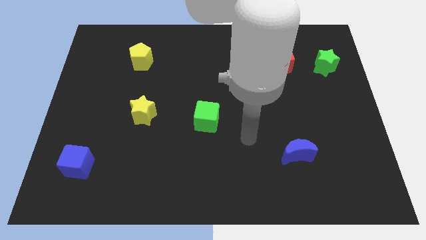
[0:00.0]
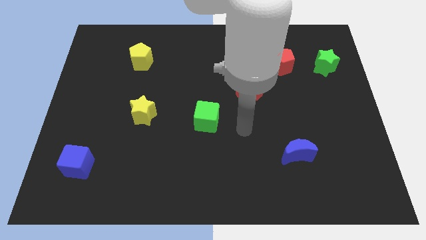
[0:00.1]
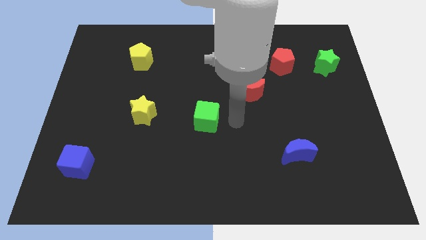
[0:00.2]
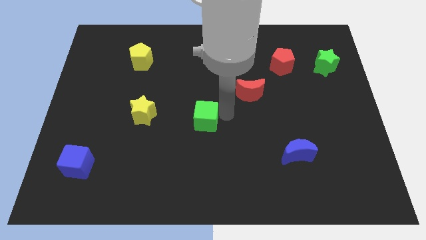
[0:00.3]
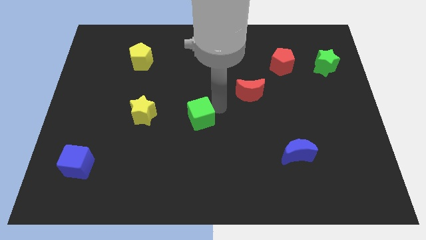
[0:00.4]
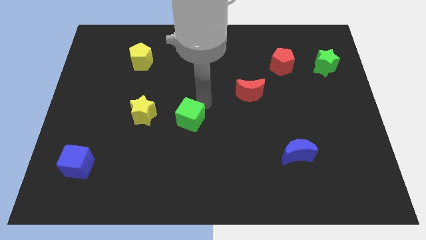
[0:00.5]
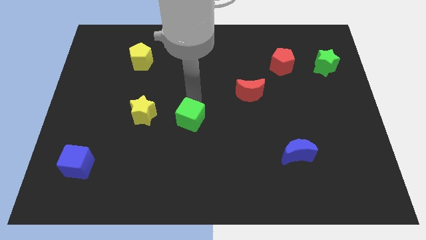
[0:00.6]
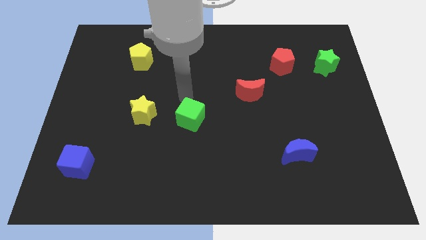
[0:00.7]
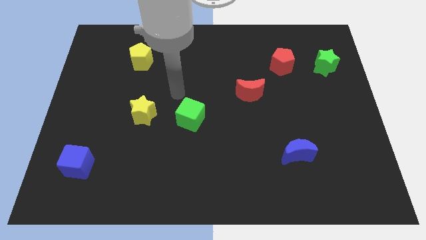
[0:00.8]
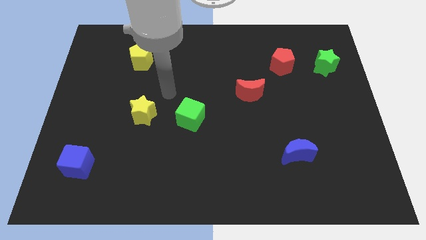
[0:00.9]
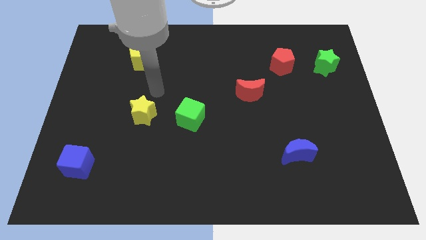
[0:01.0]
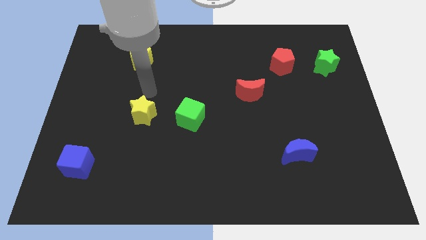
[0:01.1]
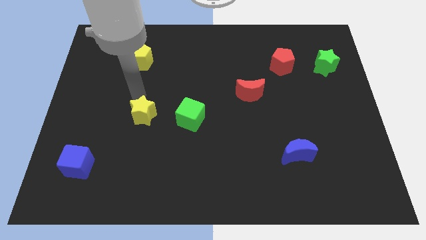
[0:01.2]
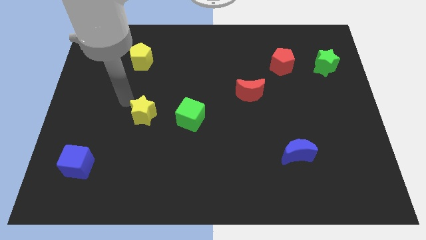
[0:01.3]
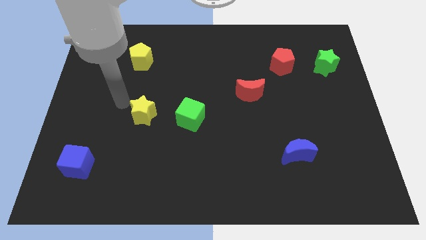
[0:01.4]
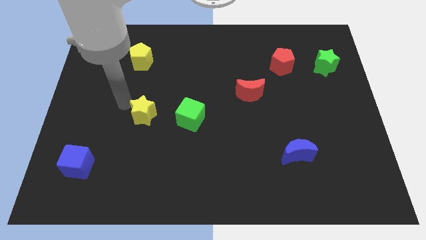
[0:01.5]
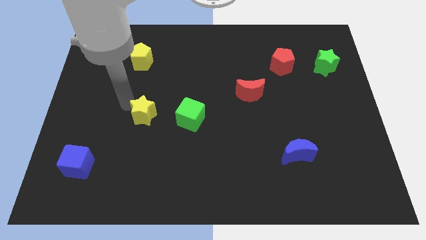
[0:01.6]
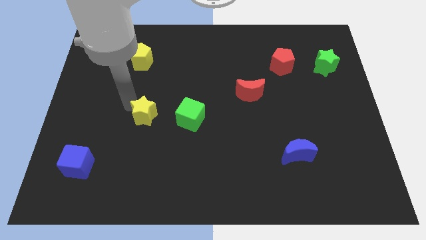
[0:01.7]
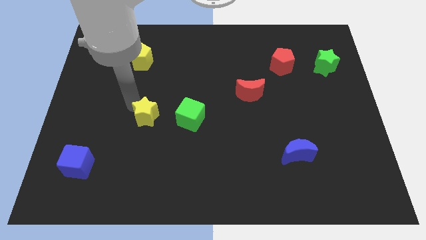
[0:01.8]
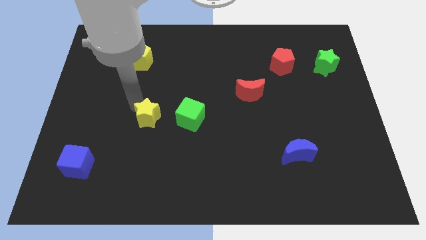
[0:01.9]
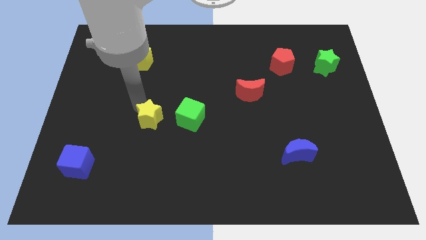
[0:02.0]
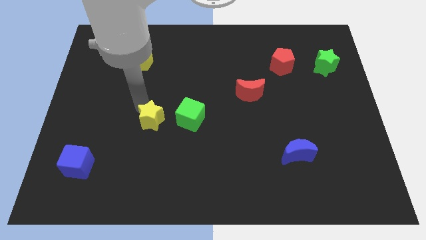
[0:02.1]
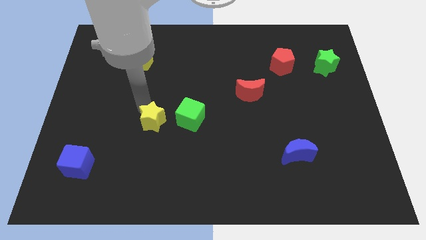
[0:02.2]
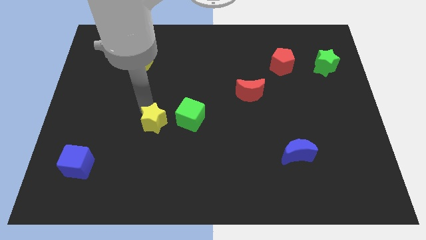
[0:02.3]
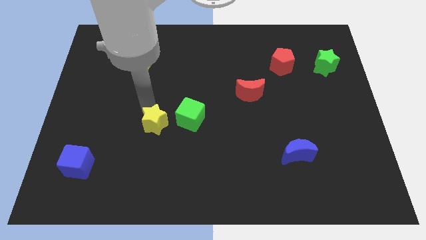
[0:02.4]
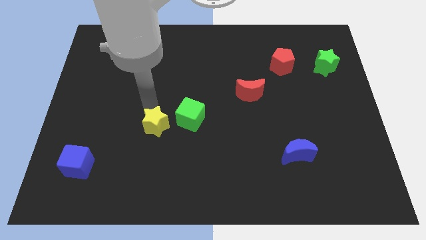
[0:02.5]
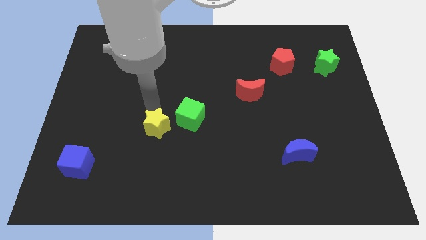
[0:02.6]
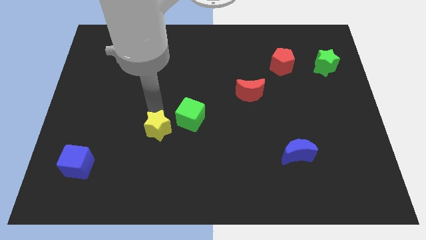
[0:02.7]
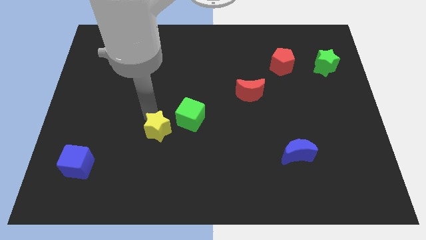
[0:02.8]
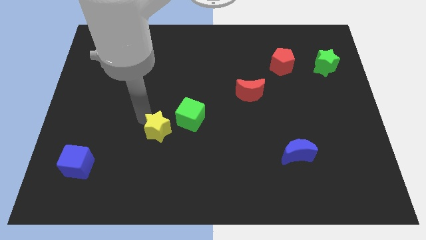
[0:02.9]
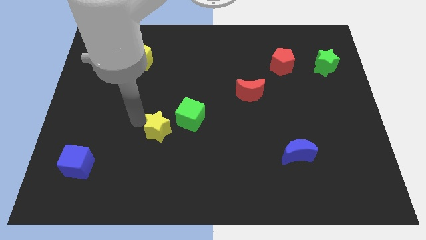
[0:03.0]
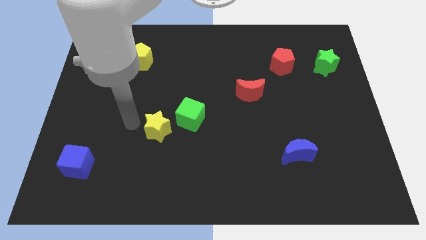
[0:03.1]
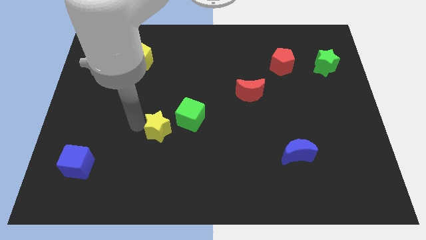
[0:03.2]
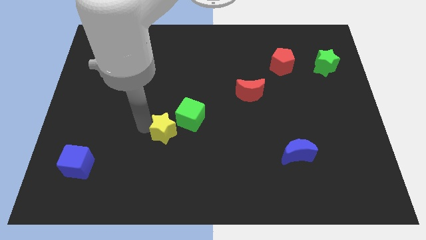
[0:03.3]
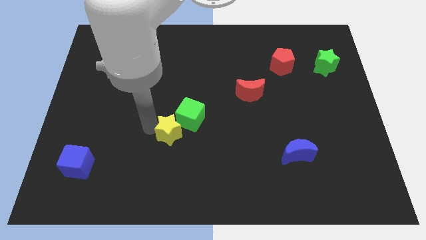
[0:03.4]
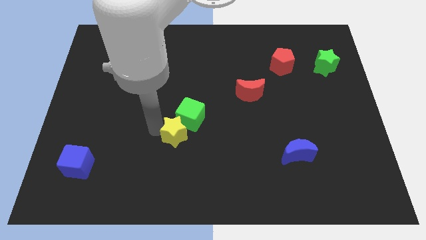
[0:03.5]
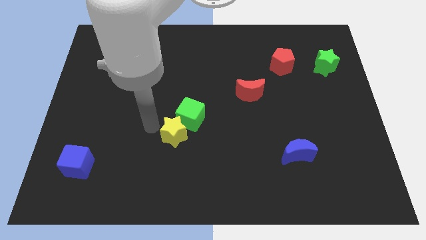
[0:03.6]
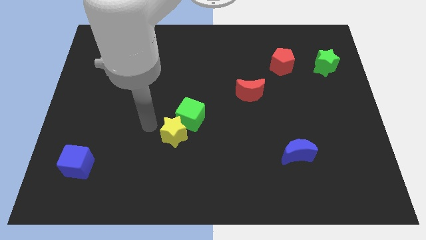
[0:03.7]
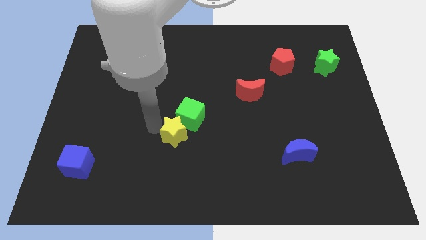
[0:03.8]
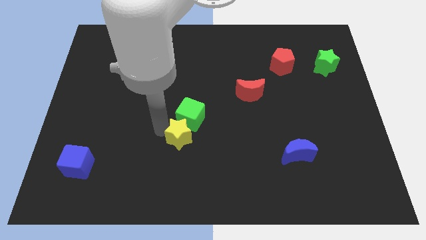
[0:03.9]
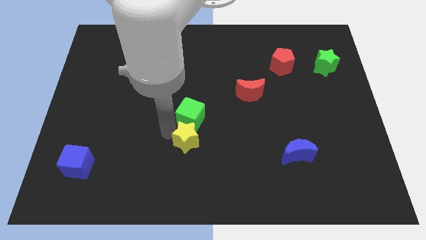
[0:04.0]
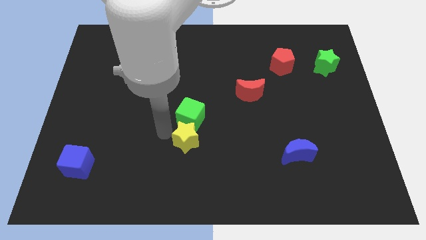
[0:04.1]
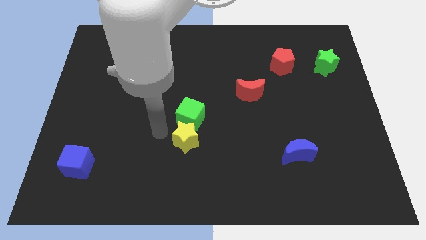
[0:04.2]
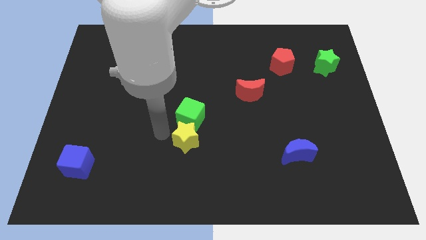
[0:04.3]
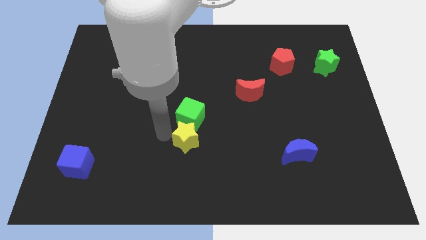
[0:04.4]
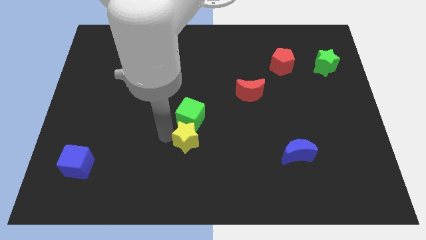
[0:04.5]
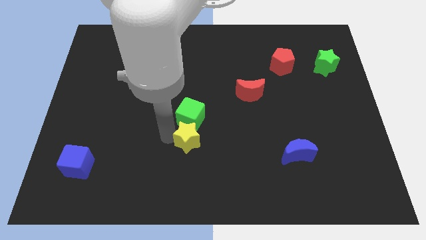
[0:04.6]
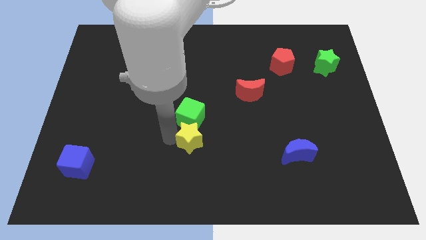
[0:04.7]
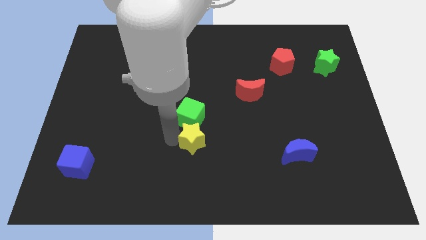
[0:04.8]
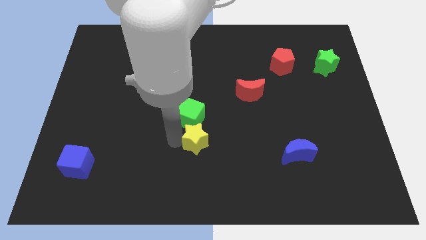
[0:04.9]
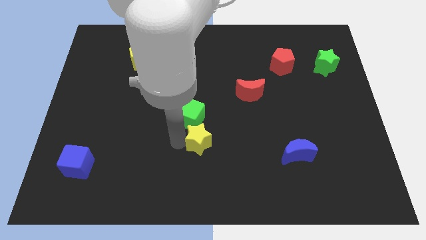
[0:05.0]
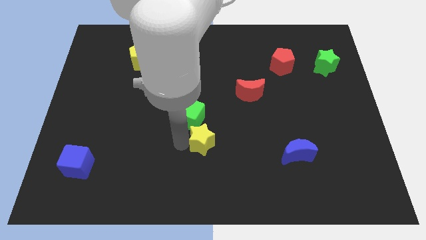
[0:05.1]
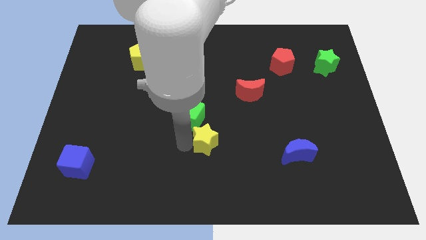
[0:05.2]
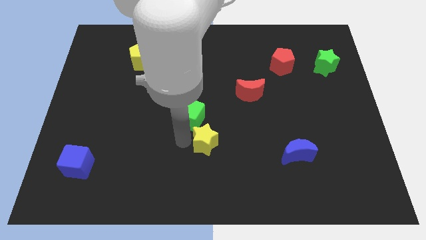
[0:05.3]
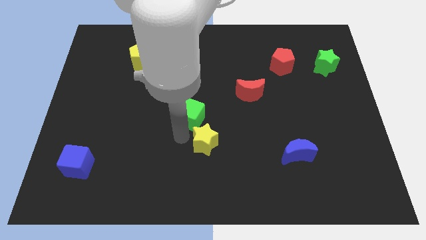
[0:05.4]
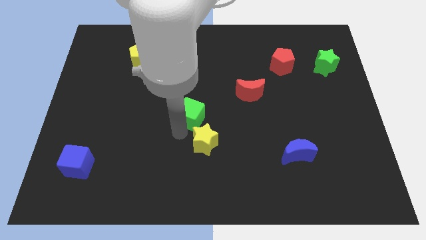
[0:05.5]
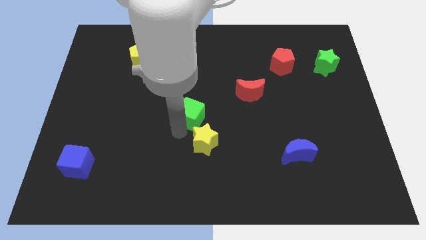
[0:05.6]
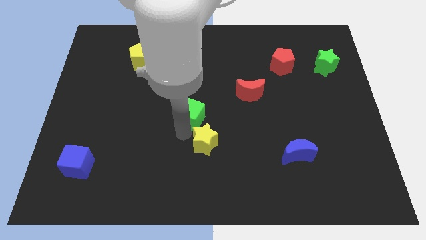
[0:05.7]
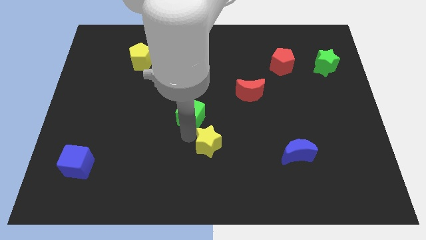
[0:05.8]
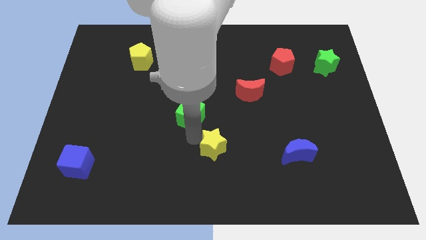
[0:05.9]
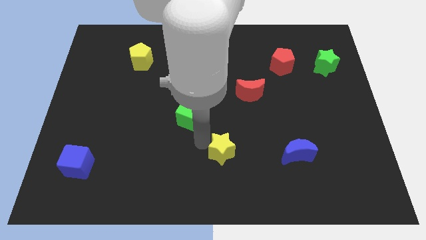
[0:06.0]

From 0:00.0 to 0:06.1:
move the yellow star left of the blue moon
